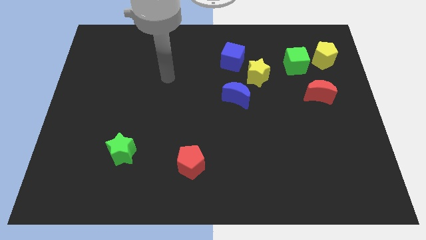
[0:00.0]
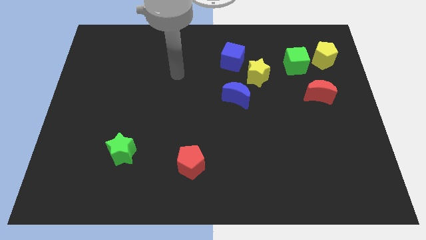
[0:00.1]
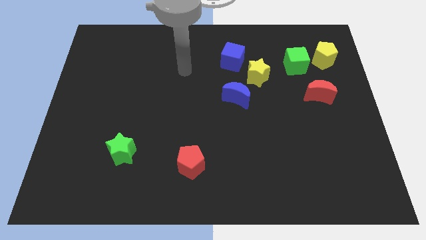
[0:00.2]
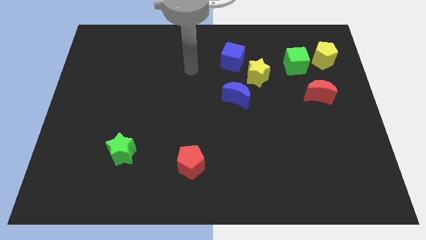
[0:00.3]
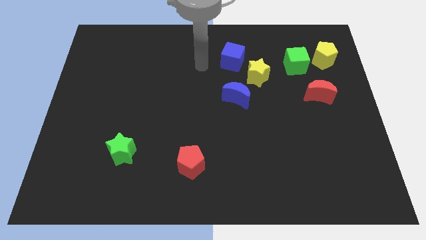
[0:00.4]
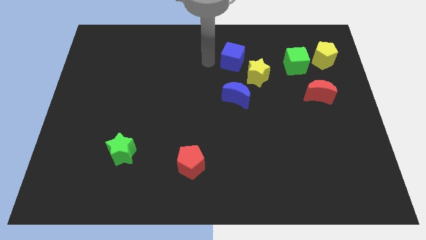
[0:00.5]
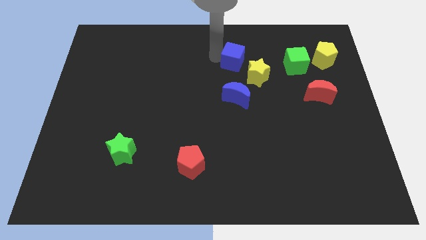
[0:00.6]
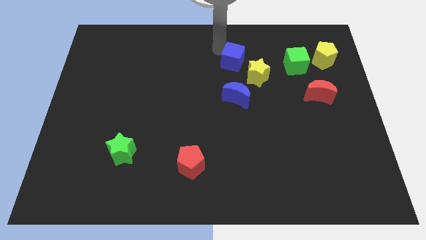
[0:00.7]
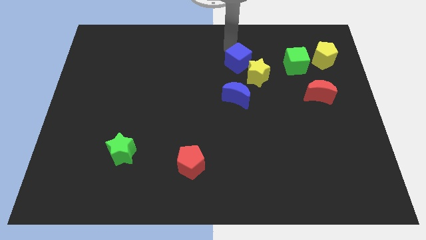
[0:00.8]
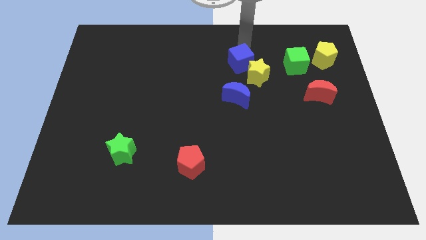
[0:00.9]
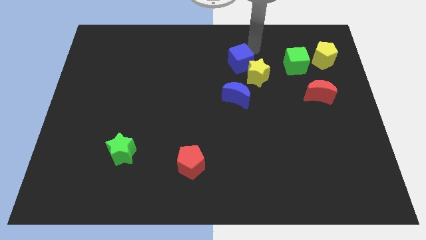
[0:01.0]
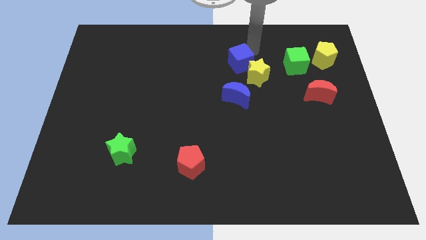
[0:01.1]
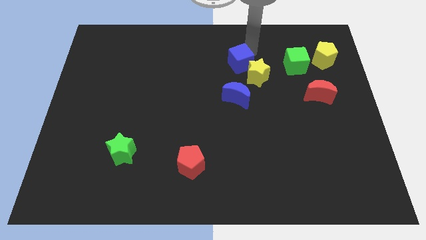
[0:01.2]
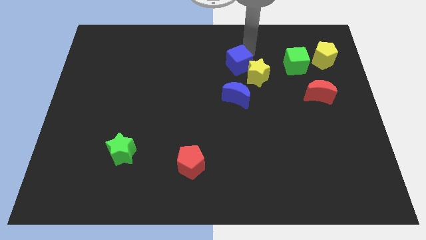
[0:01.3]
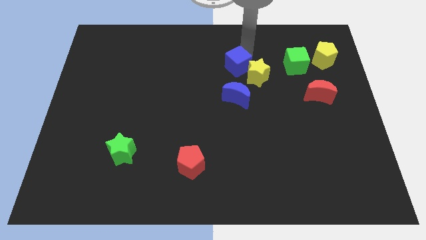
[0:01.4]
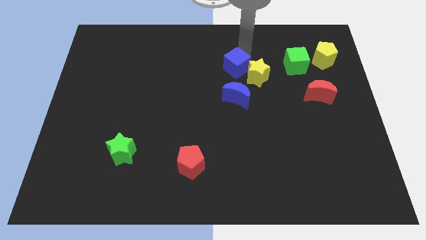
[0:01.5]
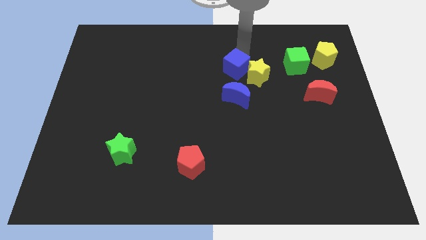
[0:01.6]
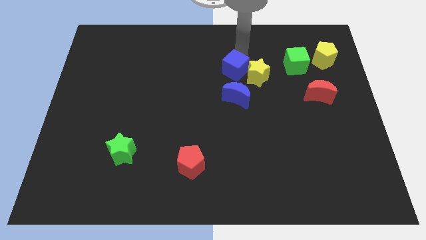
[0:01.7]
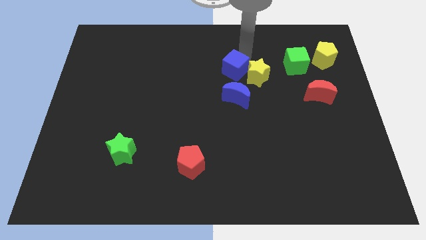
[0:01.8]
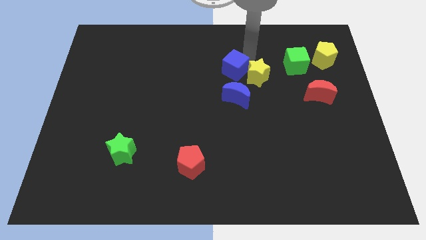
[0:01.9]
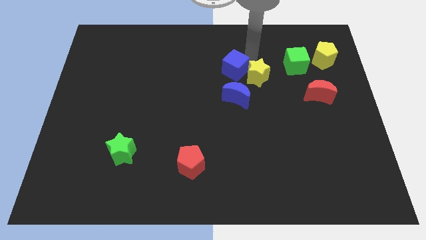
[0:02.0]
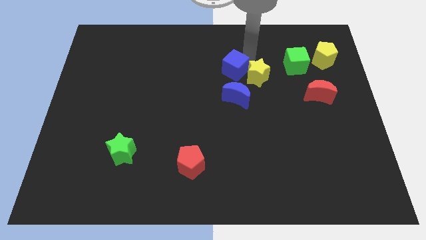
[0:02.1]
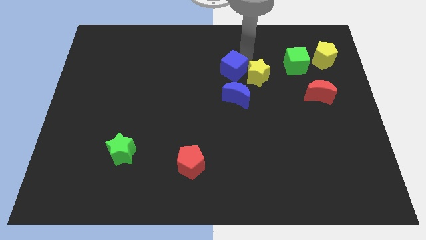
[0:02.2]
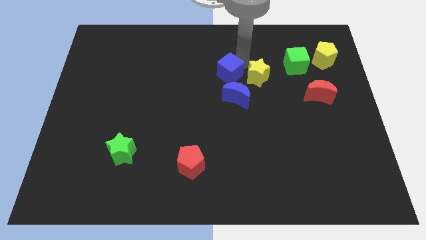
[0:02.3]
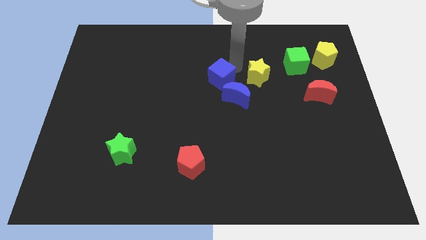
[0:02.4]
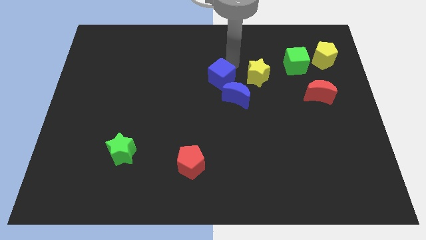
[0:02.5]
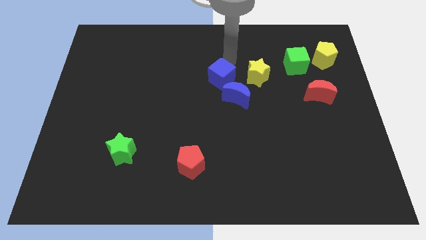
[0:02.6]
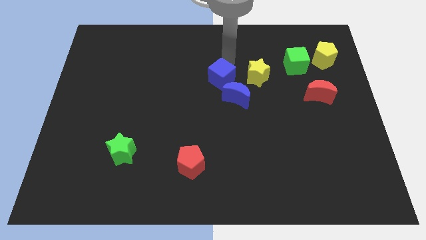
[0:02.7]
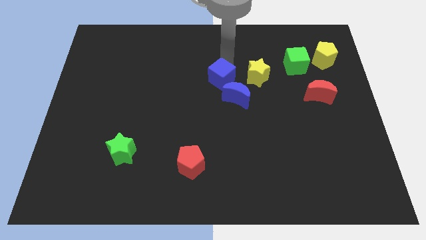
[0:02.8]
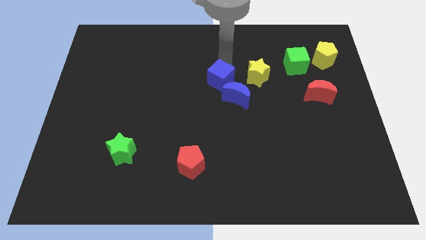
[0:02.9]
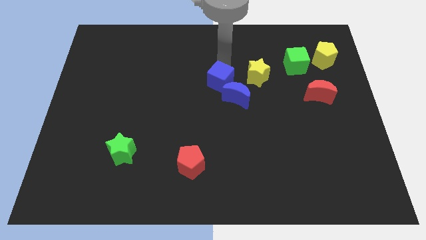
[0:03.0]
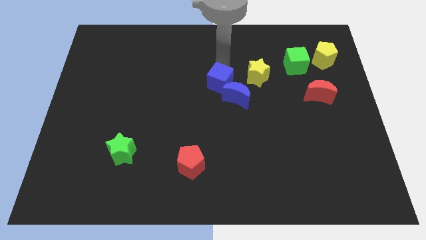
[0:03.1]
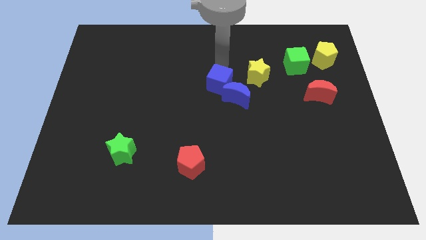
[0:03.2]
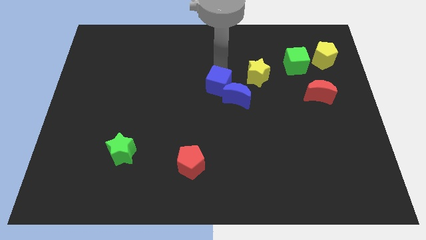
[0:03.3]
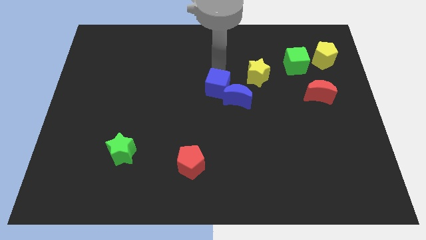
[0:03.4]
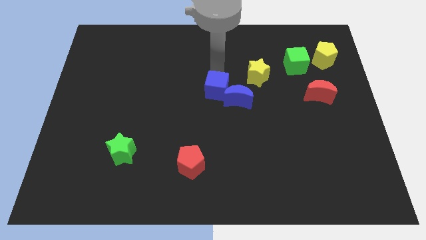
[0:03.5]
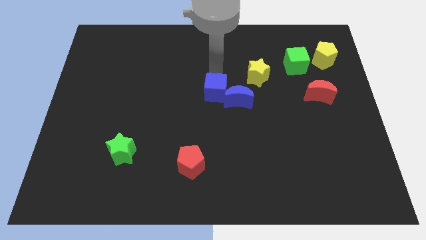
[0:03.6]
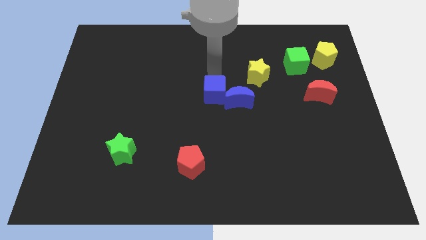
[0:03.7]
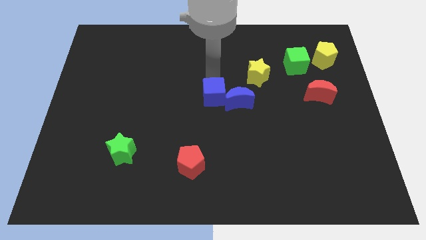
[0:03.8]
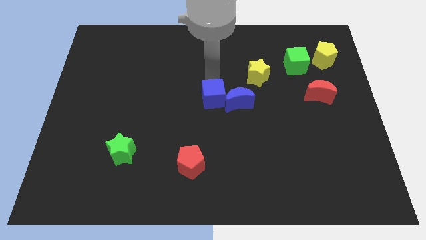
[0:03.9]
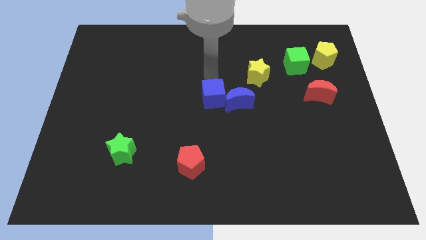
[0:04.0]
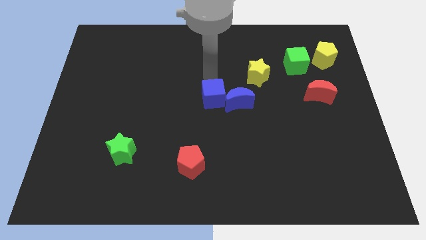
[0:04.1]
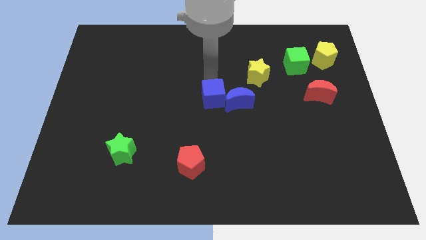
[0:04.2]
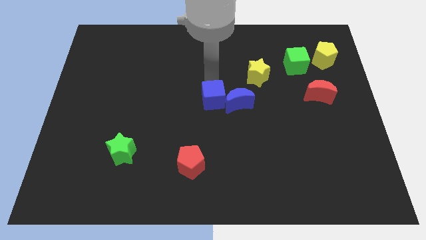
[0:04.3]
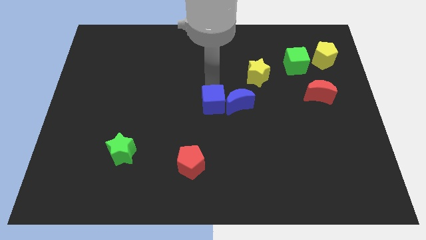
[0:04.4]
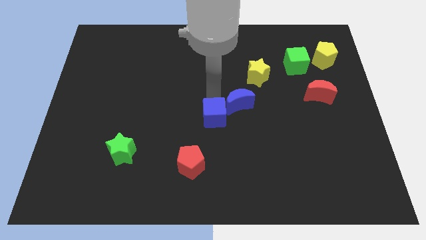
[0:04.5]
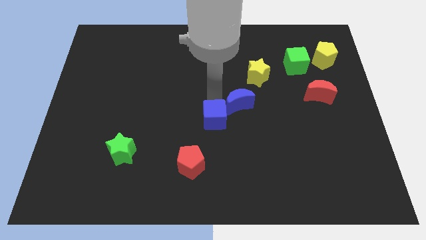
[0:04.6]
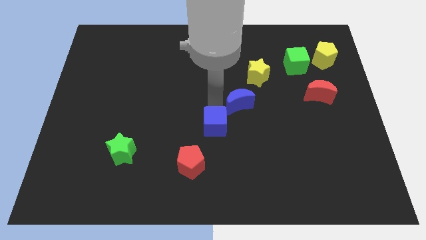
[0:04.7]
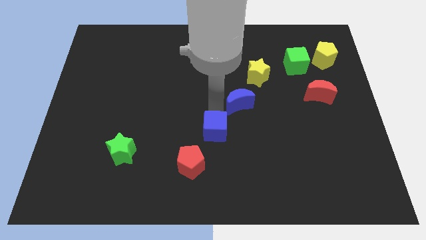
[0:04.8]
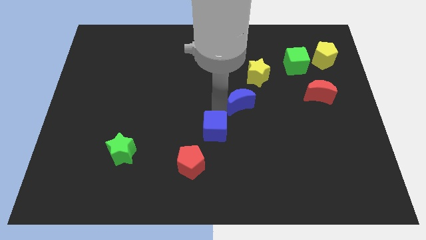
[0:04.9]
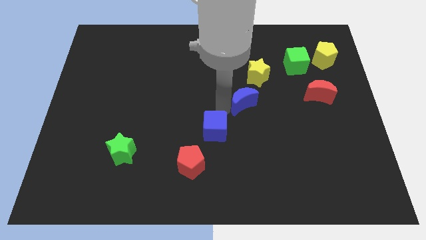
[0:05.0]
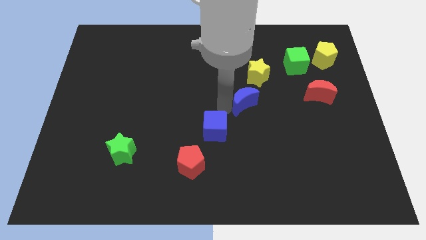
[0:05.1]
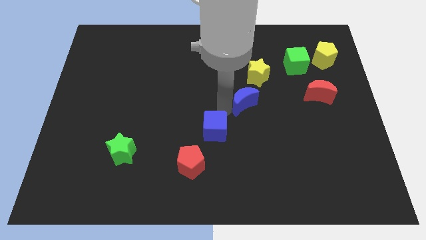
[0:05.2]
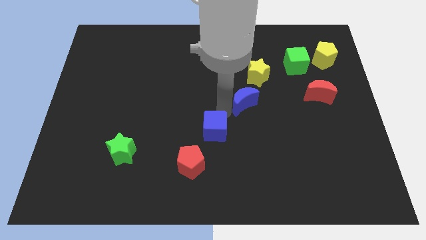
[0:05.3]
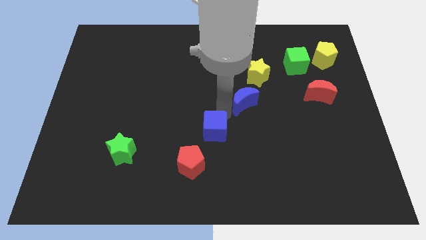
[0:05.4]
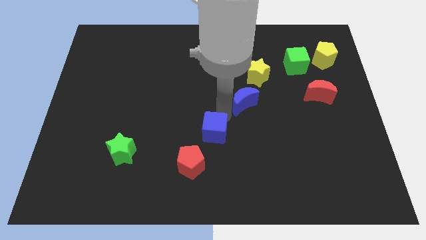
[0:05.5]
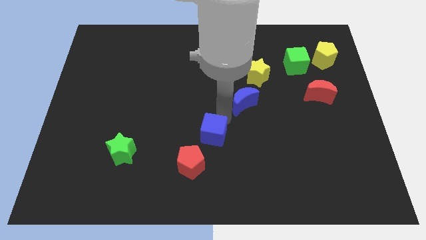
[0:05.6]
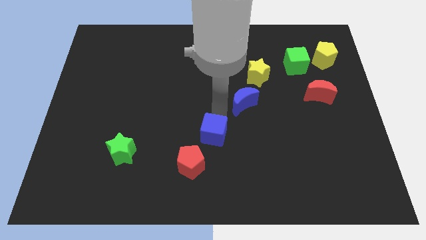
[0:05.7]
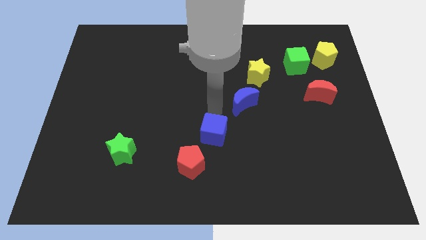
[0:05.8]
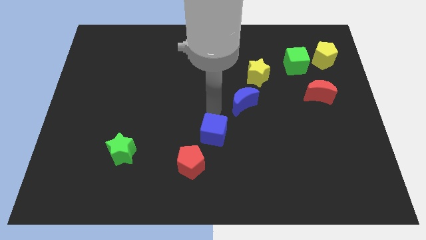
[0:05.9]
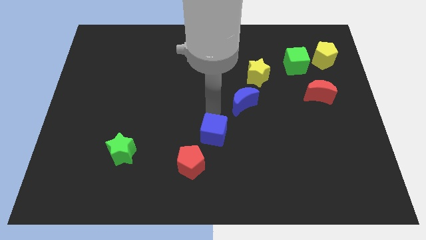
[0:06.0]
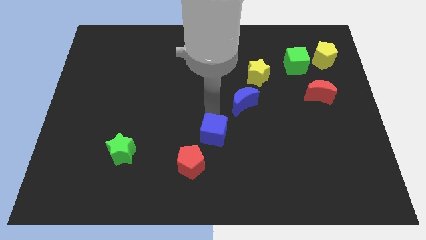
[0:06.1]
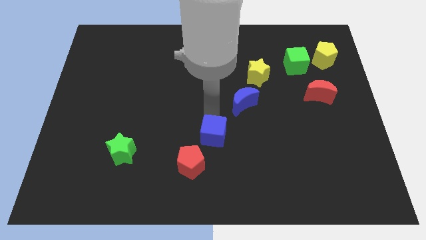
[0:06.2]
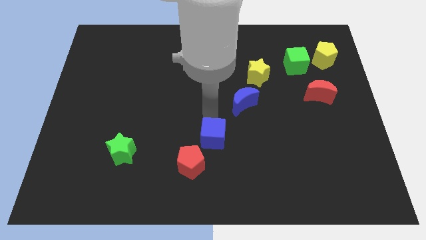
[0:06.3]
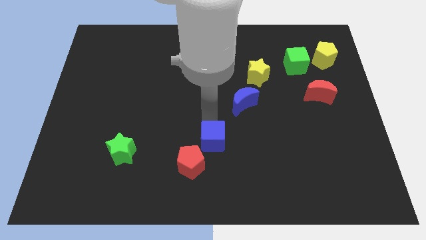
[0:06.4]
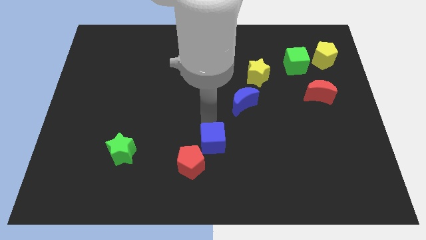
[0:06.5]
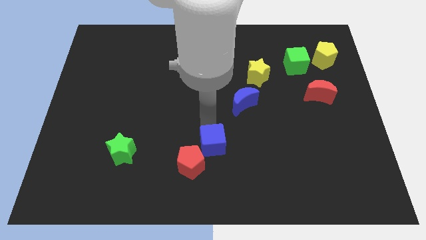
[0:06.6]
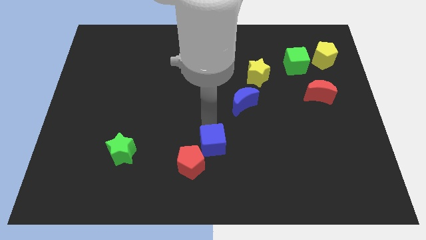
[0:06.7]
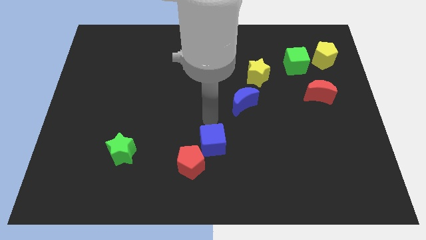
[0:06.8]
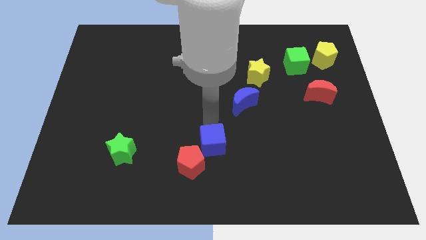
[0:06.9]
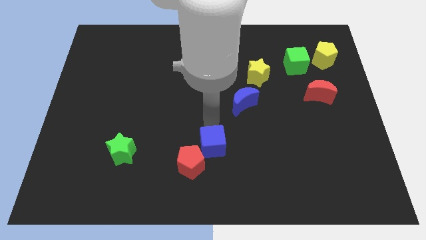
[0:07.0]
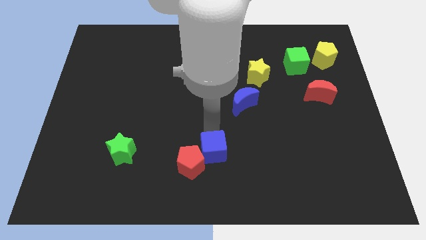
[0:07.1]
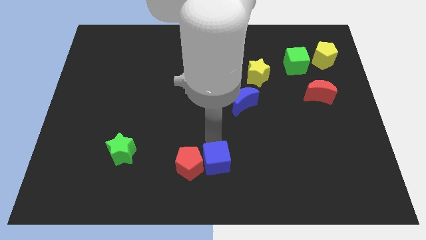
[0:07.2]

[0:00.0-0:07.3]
push the blue cube to the bottom side
